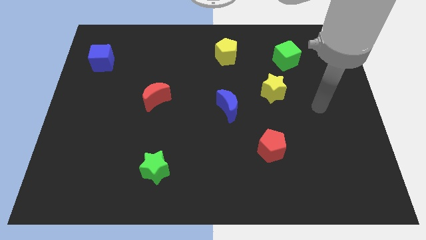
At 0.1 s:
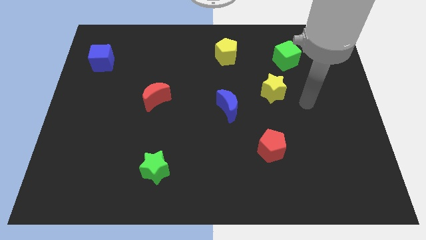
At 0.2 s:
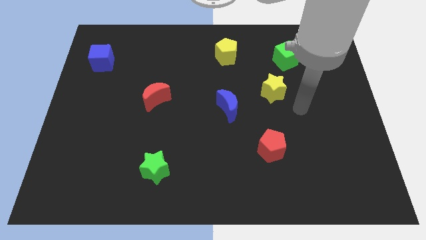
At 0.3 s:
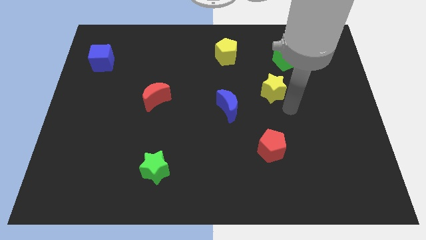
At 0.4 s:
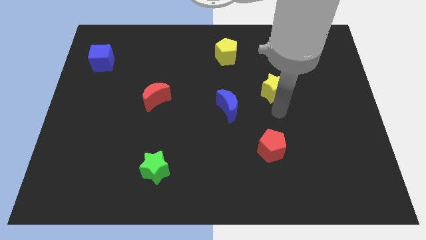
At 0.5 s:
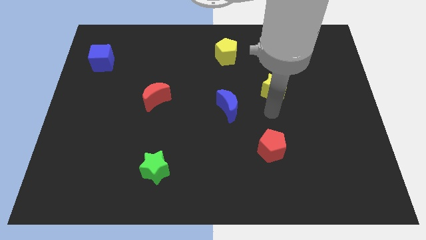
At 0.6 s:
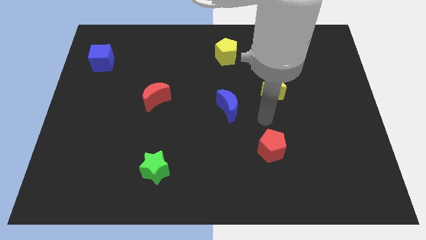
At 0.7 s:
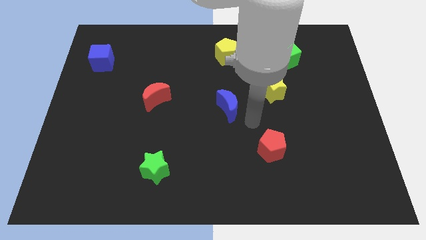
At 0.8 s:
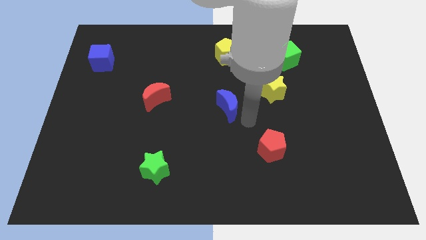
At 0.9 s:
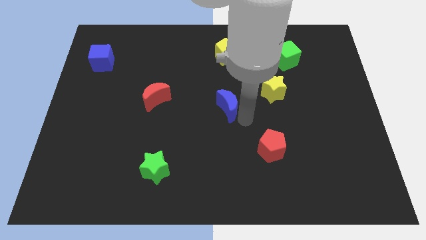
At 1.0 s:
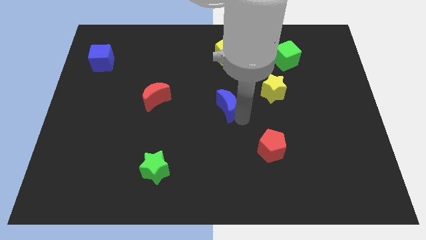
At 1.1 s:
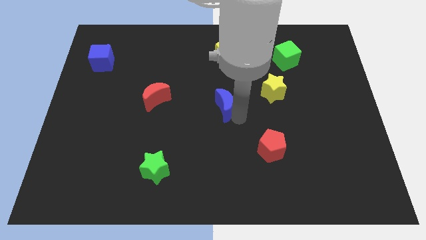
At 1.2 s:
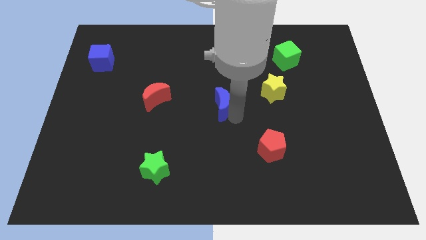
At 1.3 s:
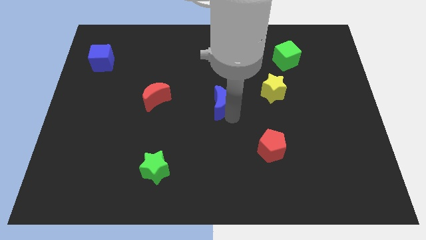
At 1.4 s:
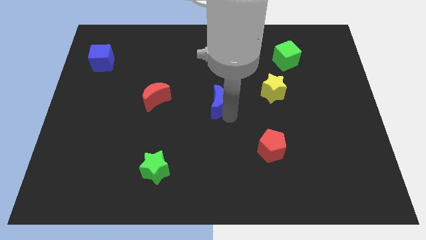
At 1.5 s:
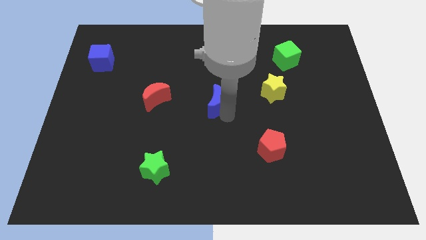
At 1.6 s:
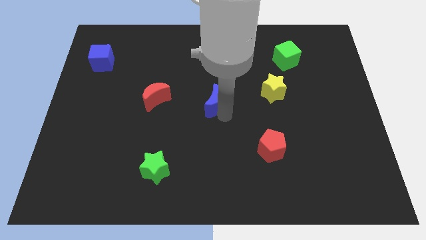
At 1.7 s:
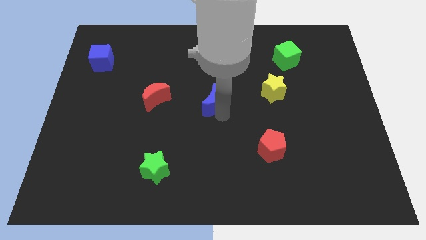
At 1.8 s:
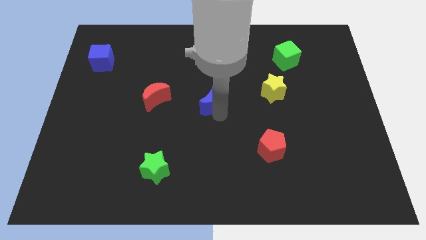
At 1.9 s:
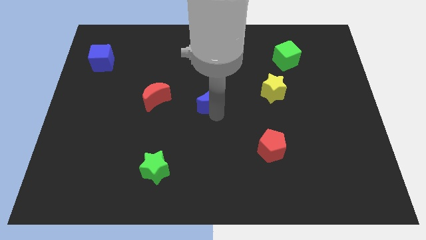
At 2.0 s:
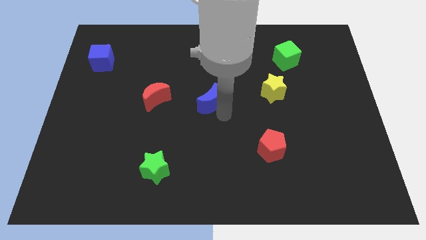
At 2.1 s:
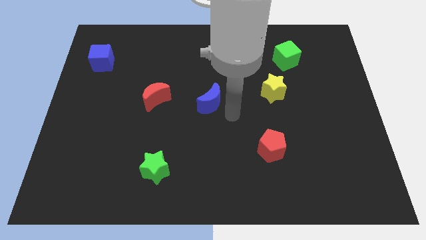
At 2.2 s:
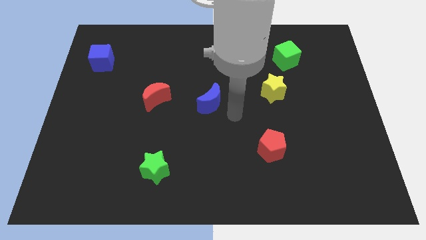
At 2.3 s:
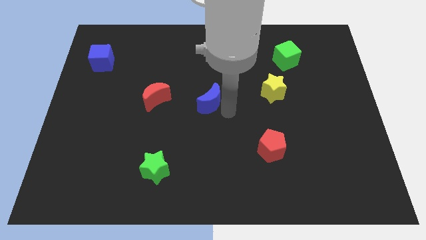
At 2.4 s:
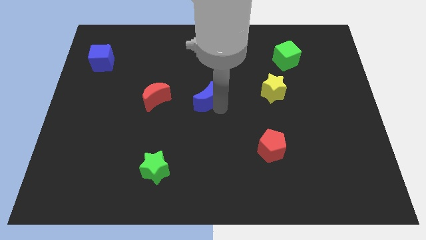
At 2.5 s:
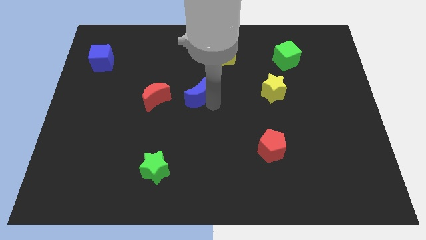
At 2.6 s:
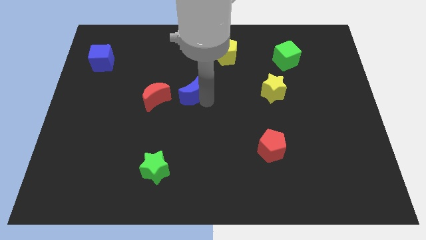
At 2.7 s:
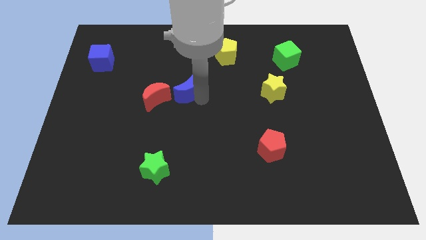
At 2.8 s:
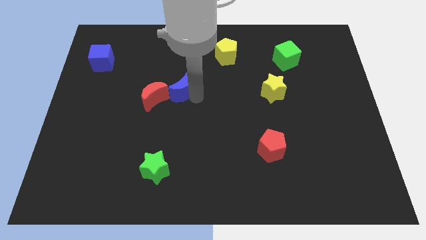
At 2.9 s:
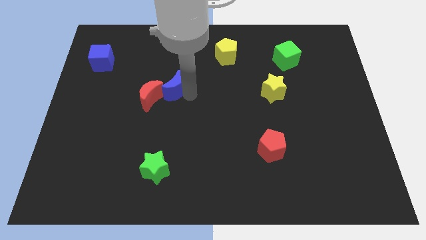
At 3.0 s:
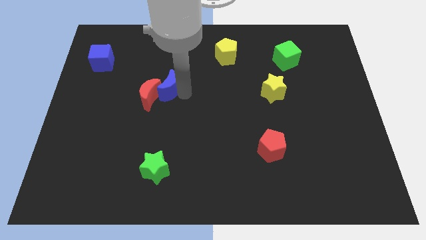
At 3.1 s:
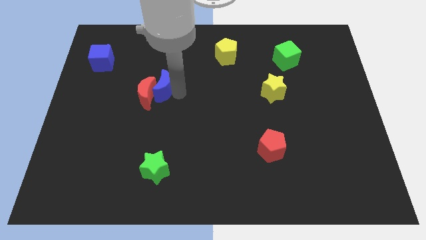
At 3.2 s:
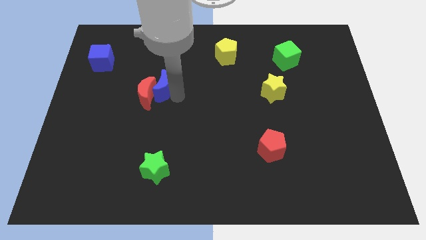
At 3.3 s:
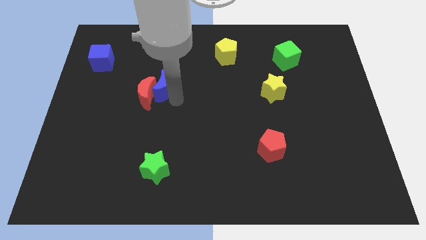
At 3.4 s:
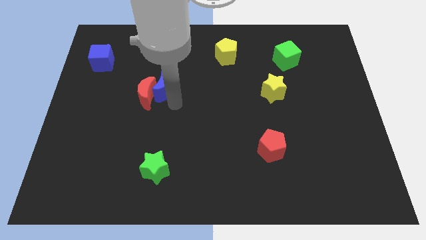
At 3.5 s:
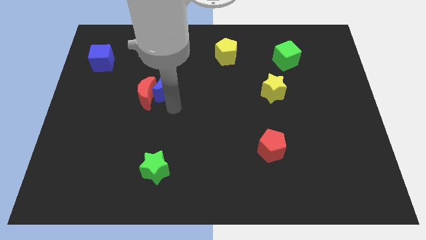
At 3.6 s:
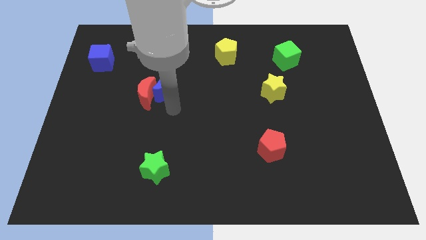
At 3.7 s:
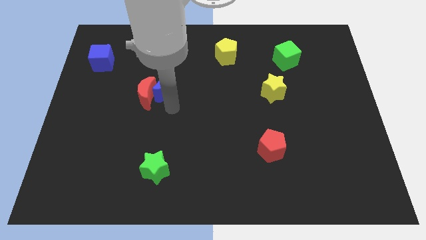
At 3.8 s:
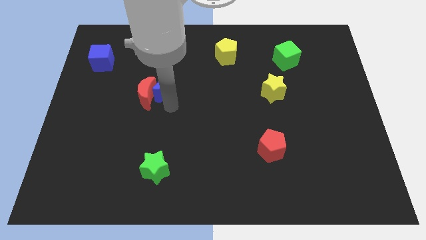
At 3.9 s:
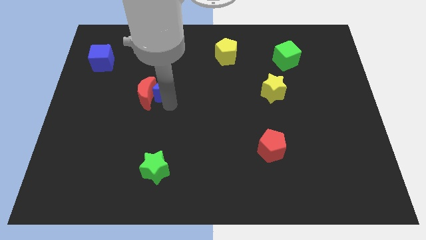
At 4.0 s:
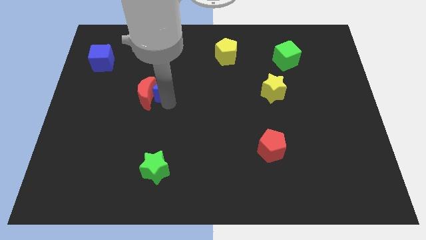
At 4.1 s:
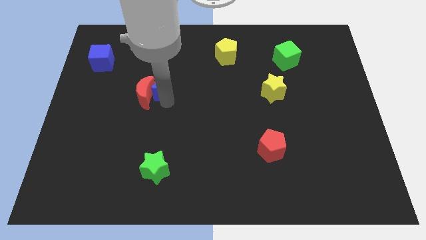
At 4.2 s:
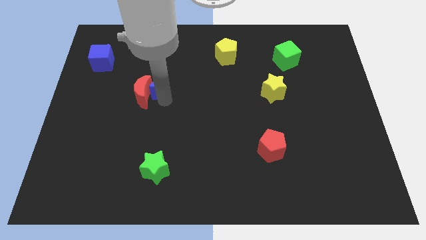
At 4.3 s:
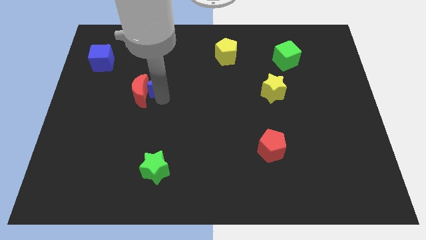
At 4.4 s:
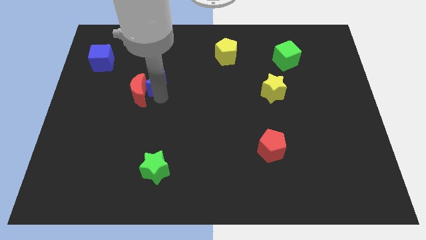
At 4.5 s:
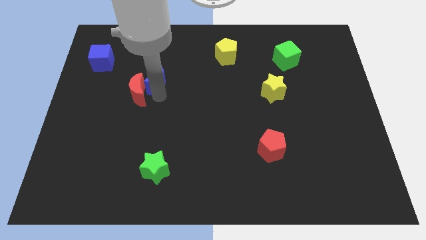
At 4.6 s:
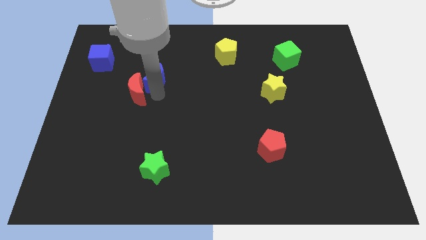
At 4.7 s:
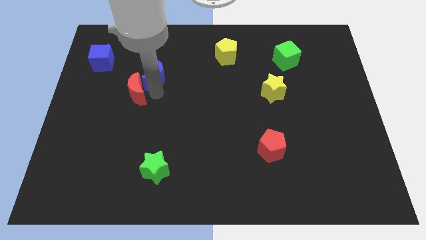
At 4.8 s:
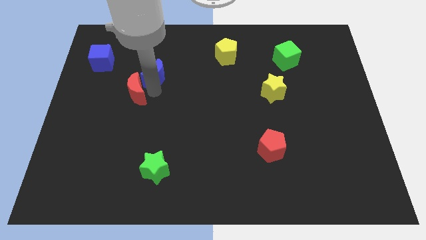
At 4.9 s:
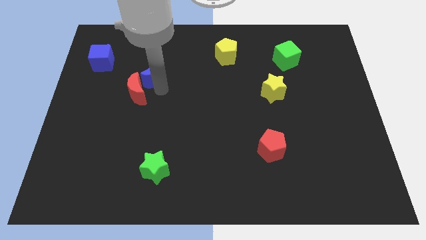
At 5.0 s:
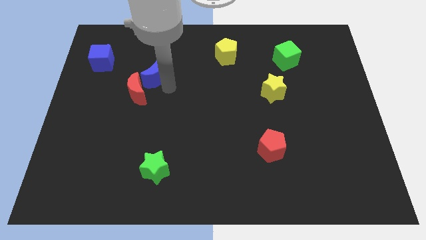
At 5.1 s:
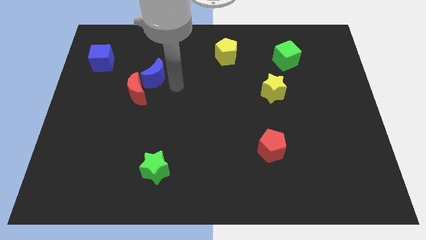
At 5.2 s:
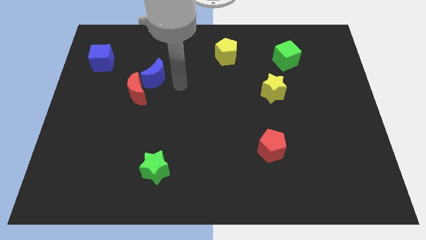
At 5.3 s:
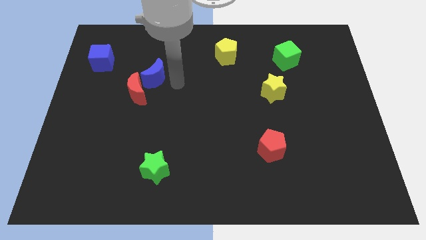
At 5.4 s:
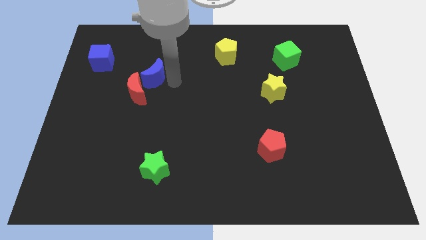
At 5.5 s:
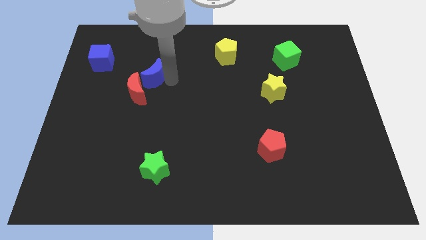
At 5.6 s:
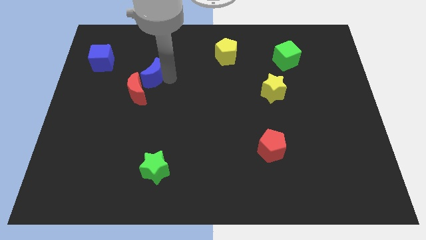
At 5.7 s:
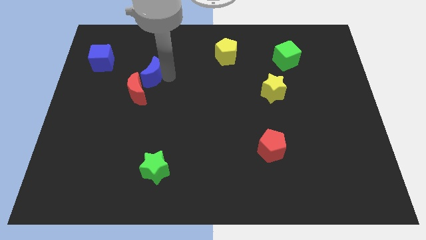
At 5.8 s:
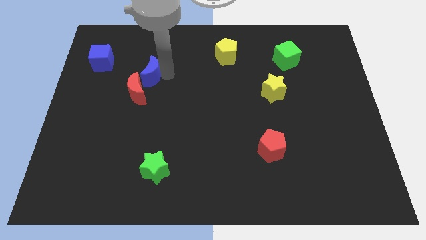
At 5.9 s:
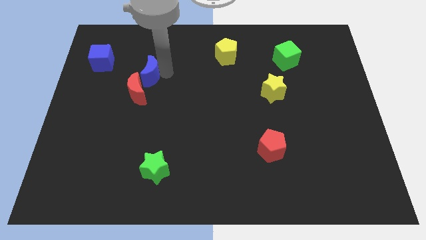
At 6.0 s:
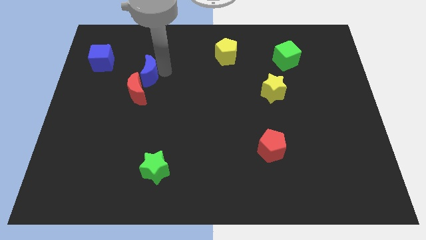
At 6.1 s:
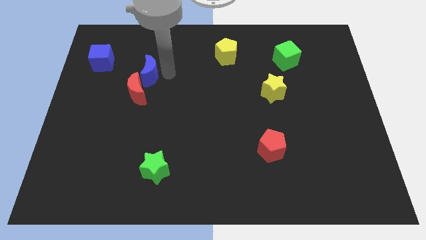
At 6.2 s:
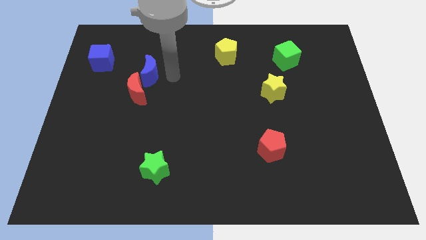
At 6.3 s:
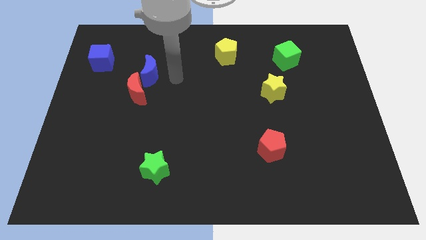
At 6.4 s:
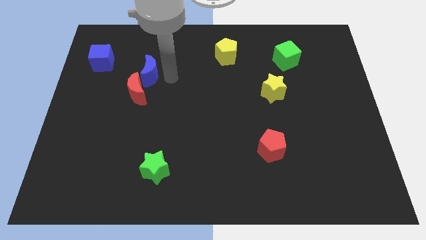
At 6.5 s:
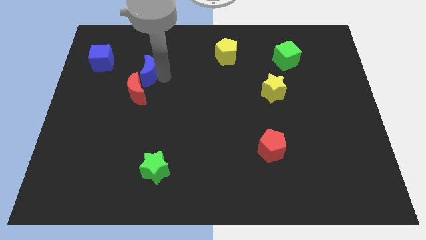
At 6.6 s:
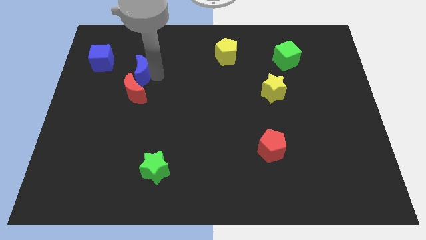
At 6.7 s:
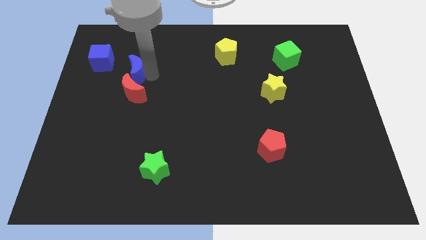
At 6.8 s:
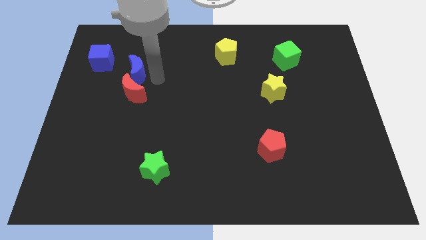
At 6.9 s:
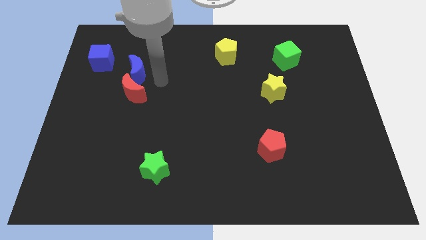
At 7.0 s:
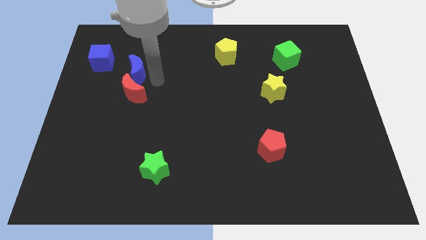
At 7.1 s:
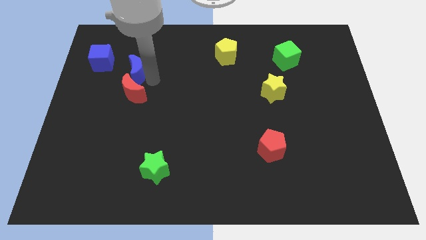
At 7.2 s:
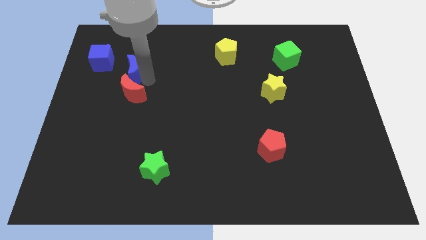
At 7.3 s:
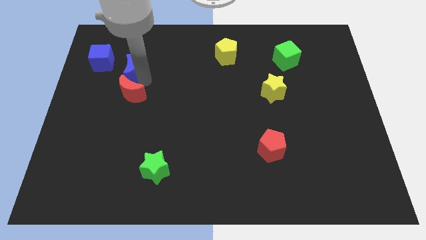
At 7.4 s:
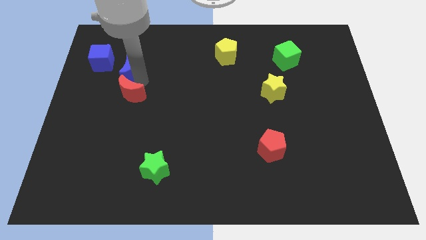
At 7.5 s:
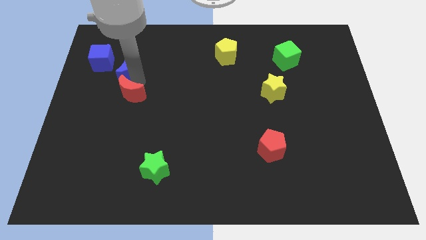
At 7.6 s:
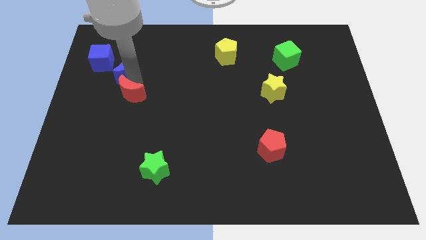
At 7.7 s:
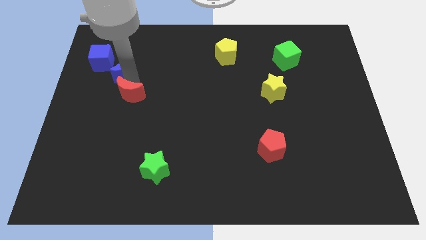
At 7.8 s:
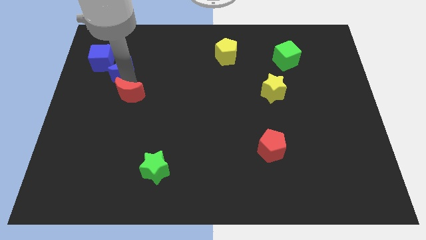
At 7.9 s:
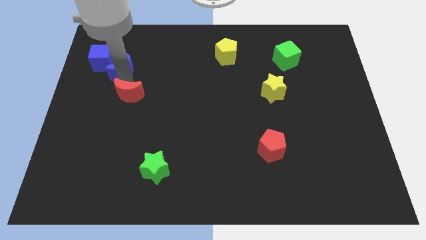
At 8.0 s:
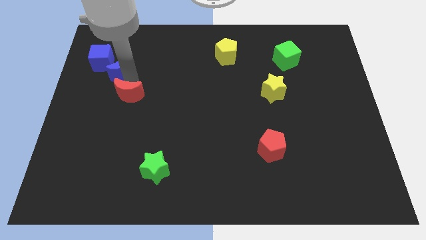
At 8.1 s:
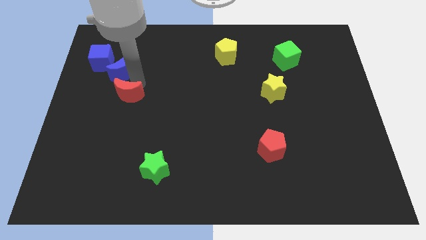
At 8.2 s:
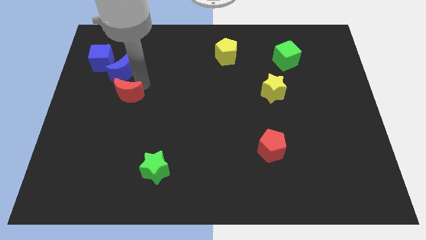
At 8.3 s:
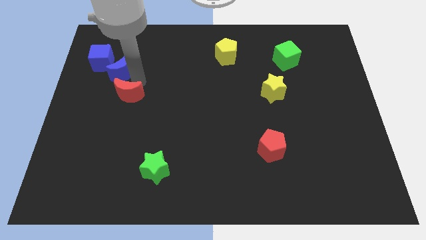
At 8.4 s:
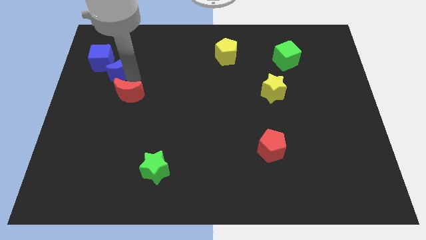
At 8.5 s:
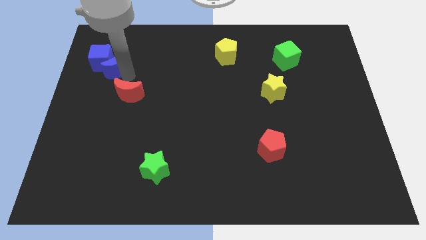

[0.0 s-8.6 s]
push the blue moon close to the blue cube
